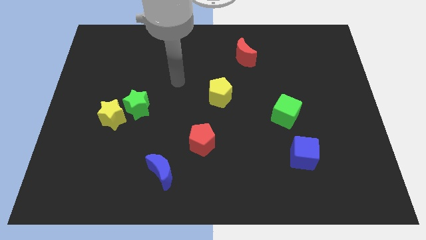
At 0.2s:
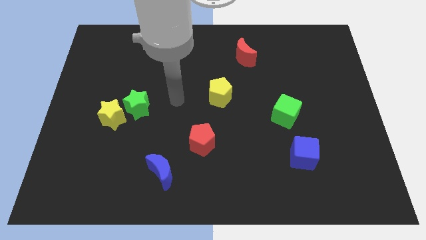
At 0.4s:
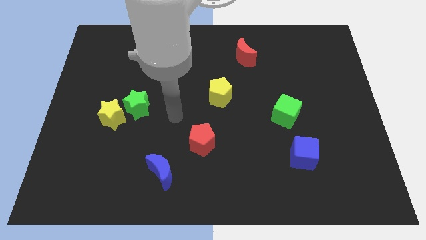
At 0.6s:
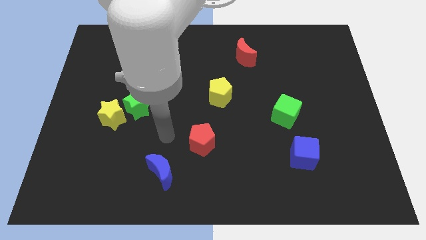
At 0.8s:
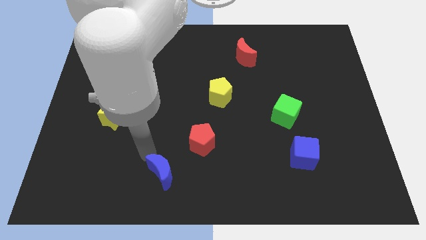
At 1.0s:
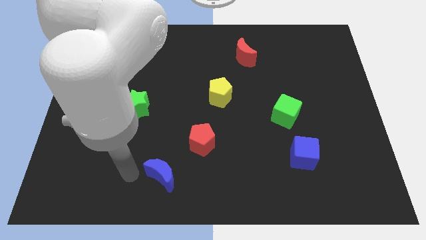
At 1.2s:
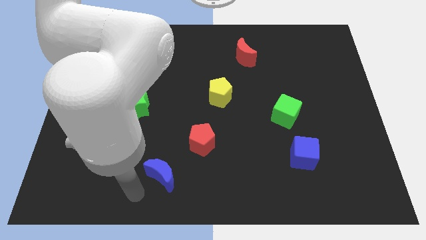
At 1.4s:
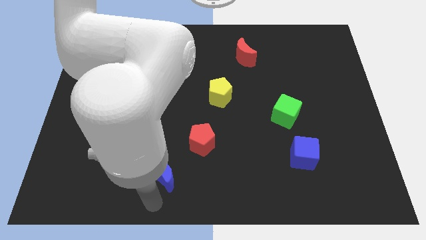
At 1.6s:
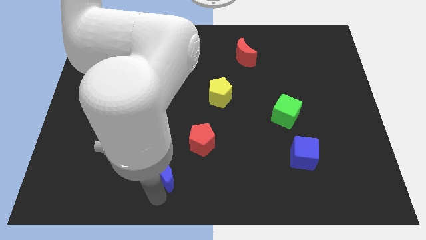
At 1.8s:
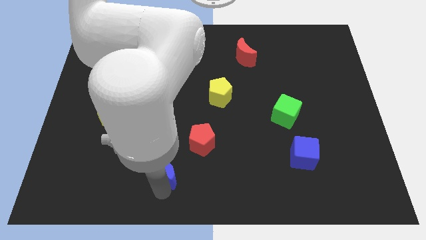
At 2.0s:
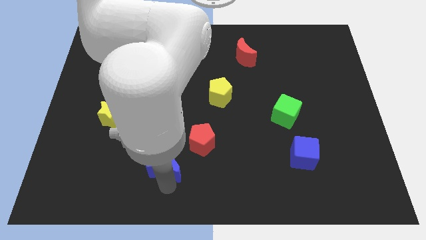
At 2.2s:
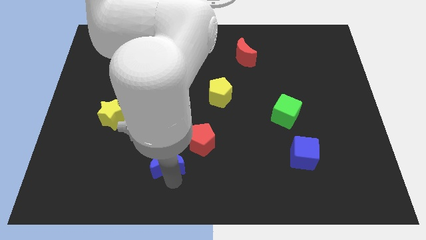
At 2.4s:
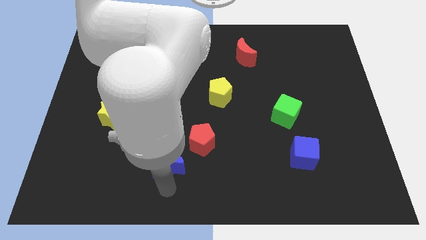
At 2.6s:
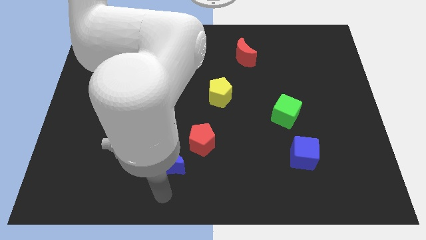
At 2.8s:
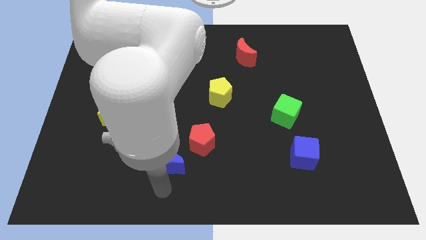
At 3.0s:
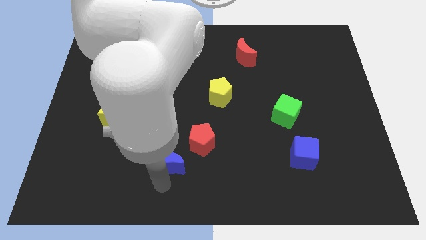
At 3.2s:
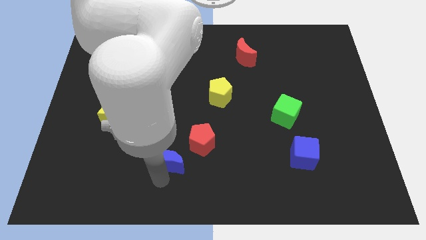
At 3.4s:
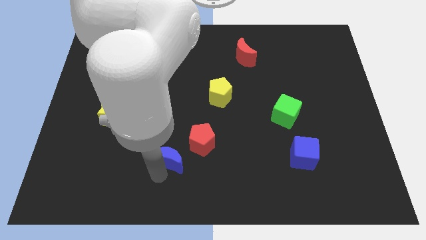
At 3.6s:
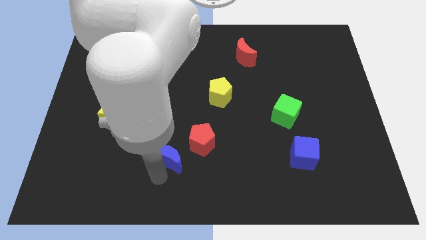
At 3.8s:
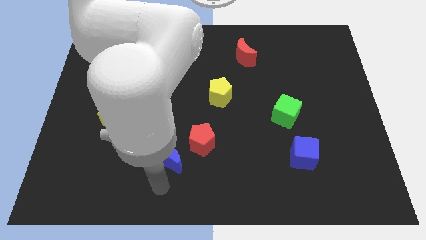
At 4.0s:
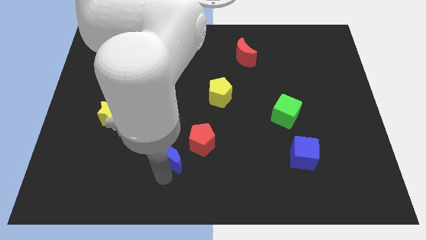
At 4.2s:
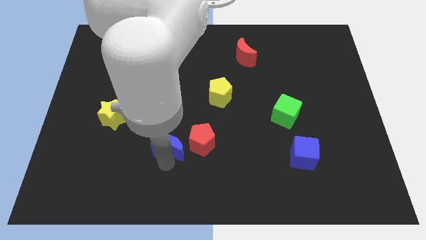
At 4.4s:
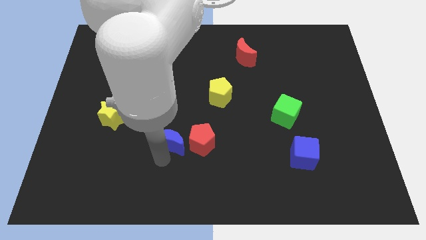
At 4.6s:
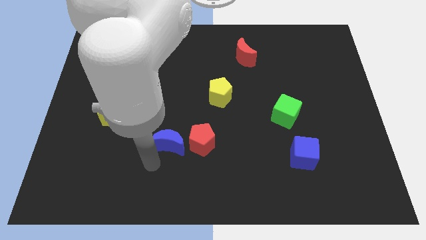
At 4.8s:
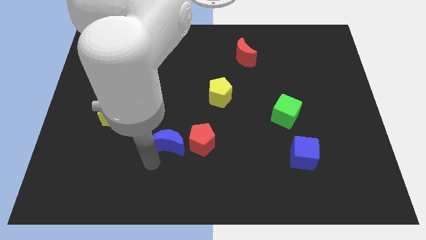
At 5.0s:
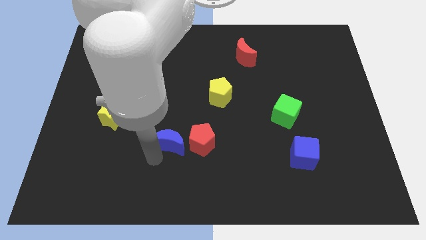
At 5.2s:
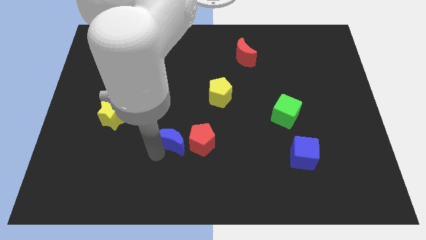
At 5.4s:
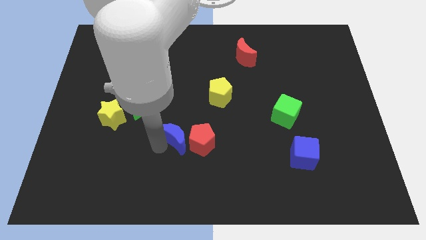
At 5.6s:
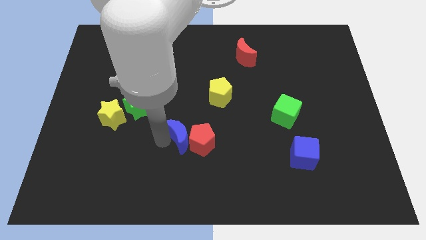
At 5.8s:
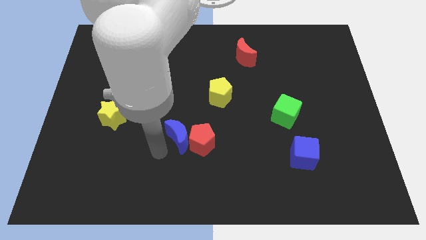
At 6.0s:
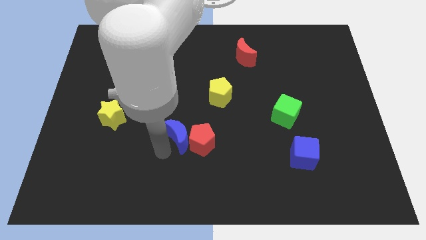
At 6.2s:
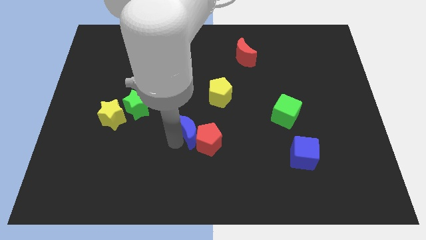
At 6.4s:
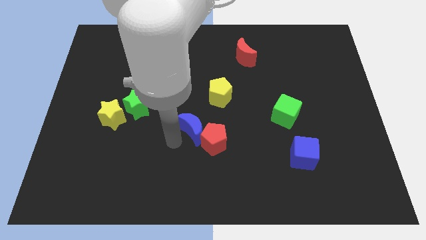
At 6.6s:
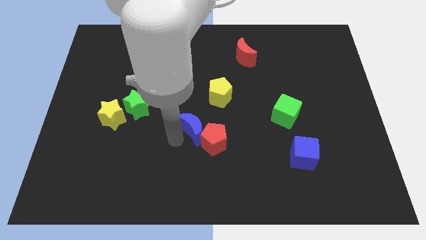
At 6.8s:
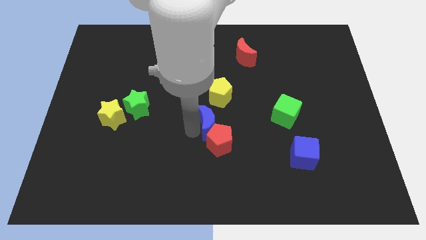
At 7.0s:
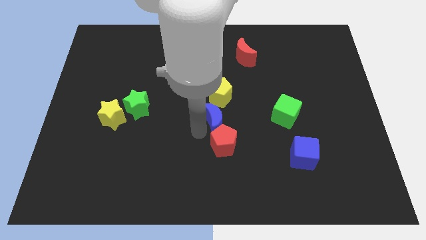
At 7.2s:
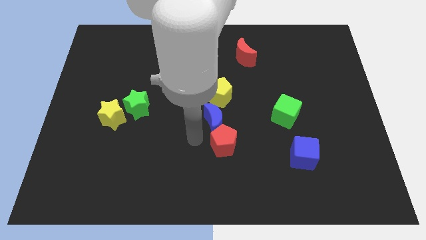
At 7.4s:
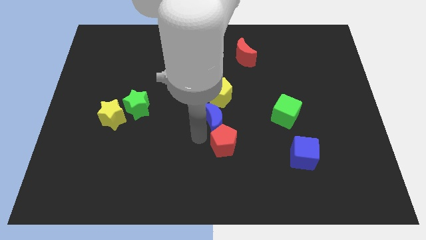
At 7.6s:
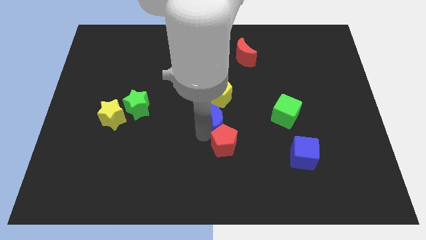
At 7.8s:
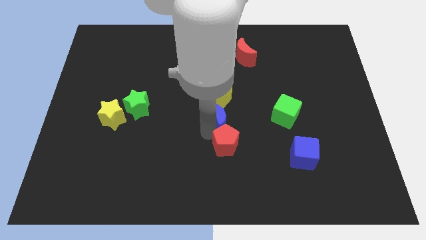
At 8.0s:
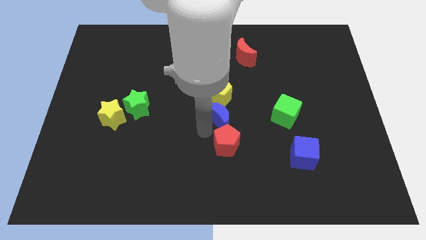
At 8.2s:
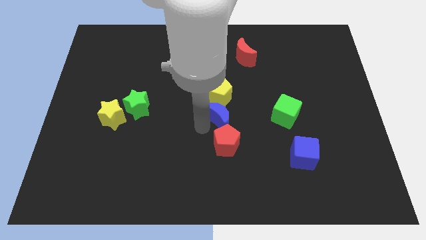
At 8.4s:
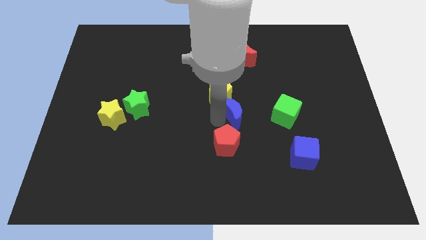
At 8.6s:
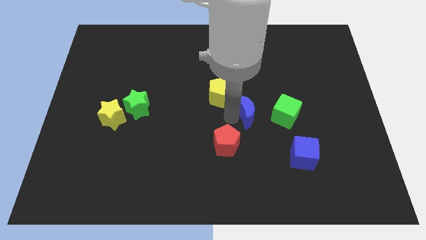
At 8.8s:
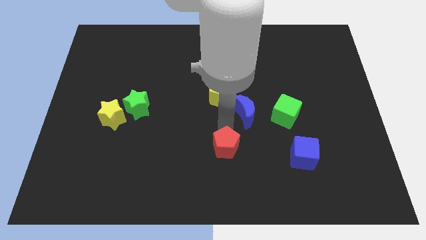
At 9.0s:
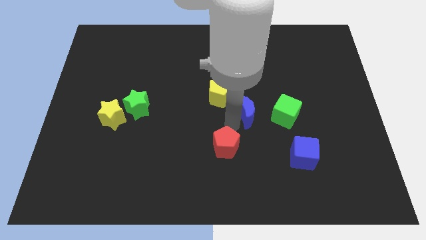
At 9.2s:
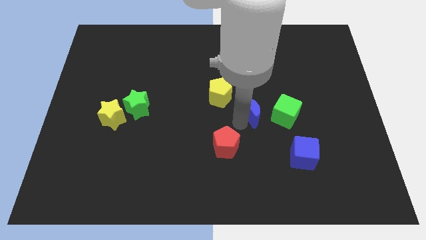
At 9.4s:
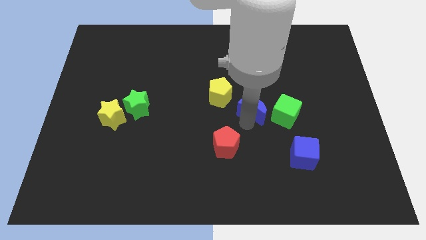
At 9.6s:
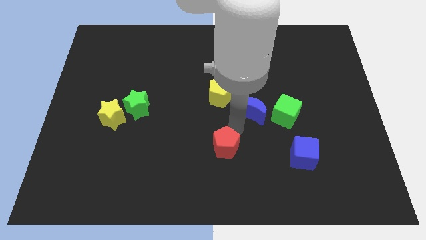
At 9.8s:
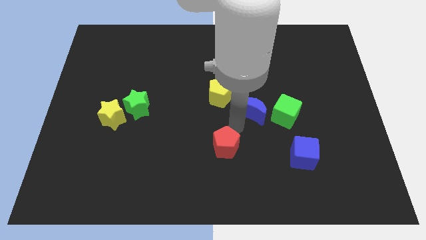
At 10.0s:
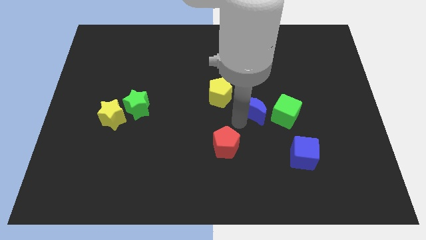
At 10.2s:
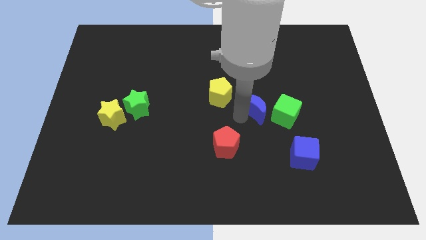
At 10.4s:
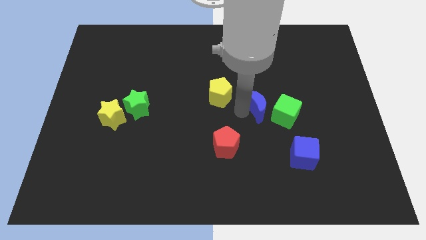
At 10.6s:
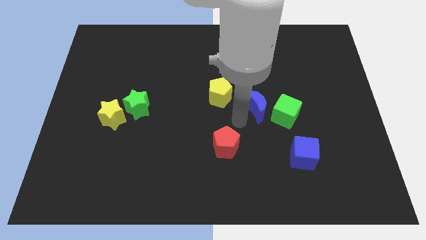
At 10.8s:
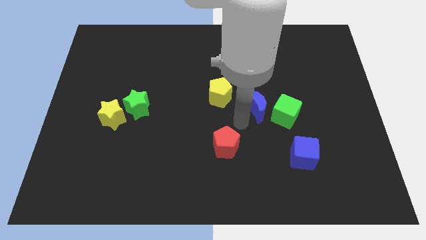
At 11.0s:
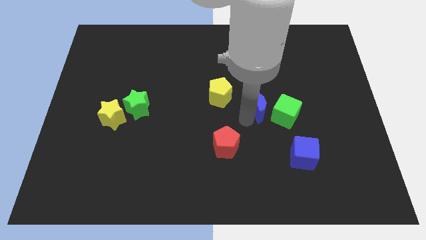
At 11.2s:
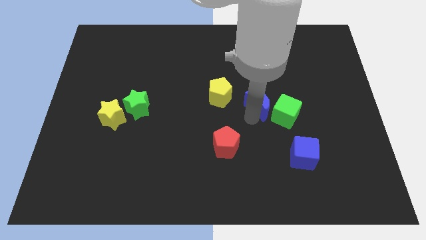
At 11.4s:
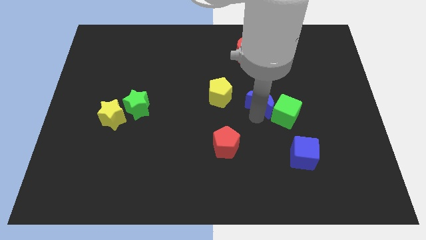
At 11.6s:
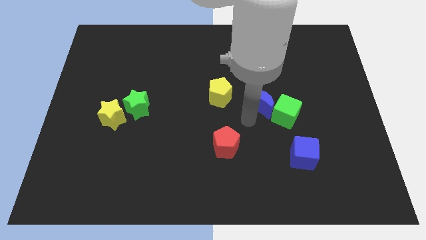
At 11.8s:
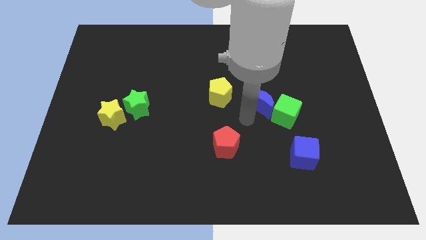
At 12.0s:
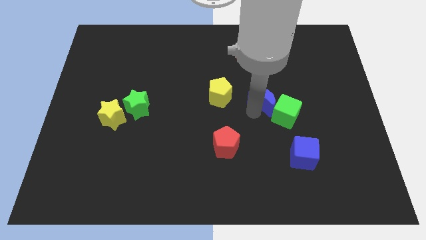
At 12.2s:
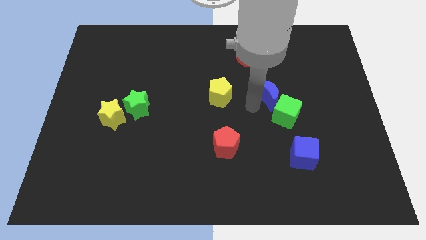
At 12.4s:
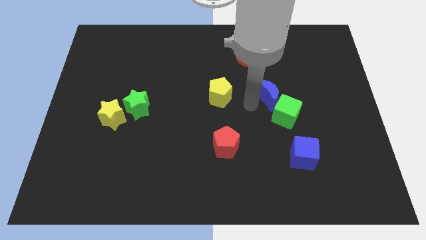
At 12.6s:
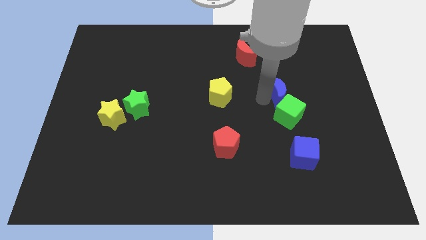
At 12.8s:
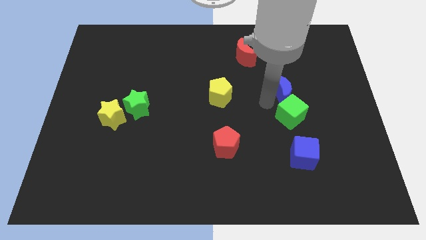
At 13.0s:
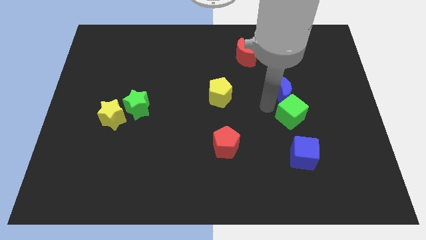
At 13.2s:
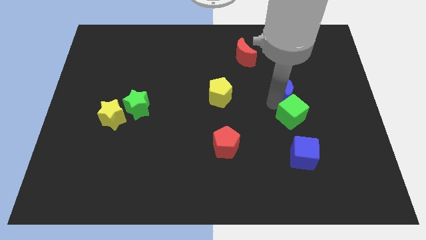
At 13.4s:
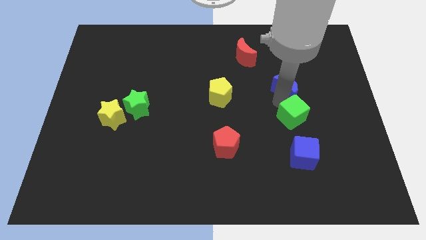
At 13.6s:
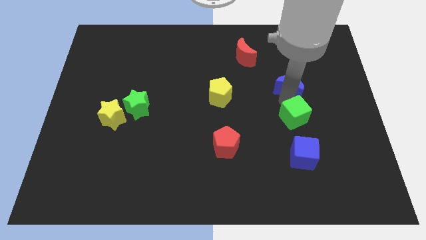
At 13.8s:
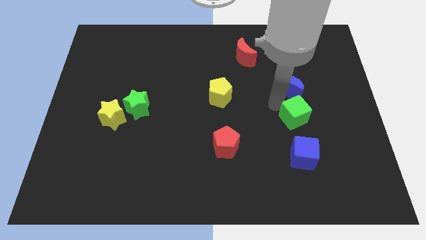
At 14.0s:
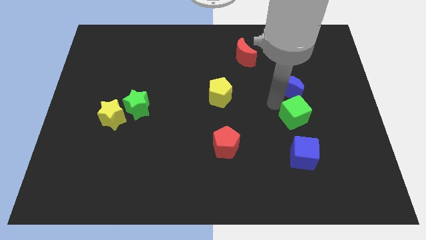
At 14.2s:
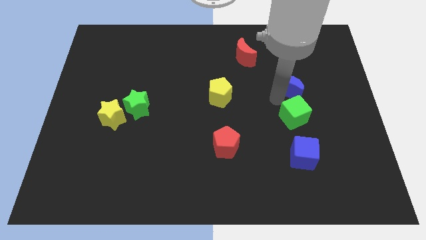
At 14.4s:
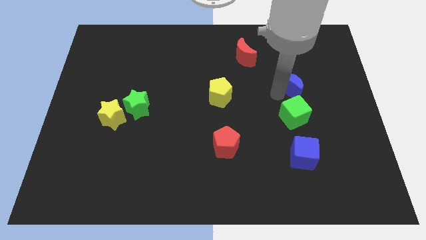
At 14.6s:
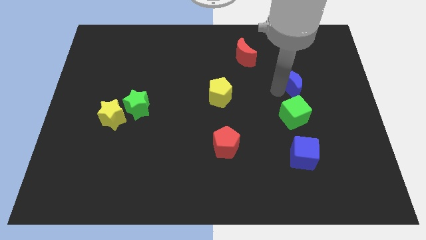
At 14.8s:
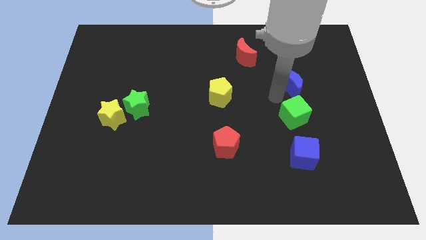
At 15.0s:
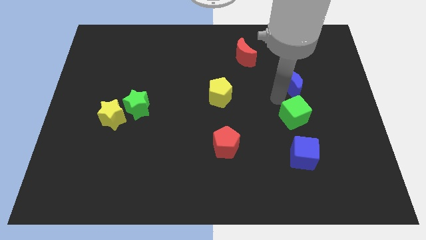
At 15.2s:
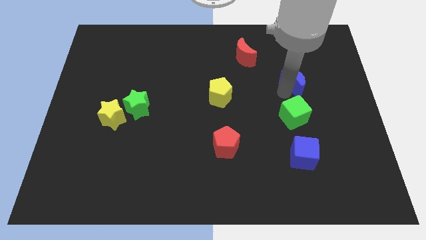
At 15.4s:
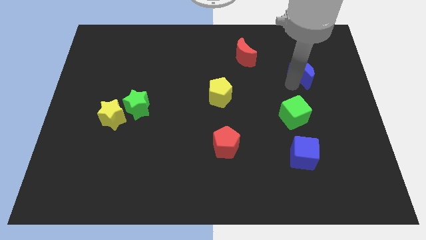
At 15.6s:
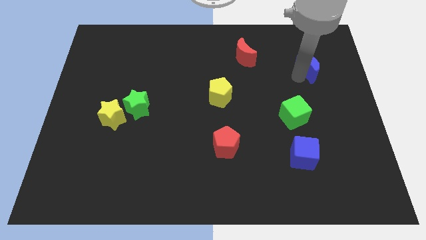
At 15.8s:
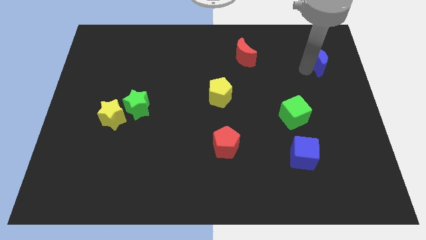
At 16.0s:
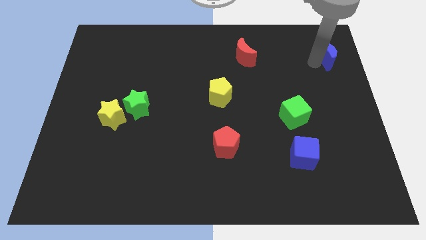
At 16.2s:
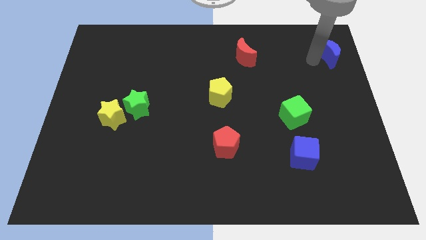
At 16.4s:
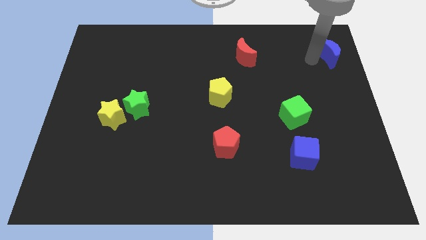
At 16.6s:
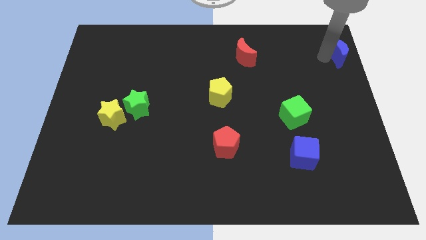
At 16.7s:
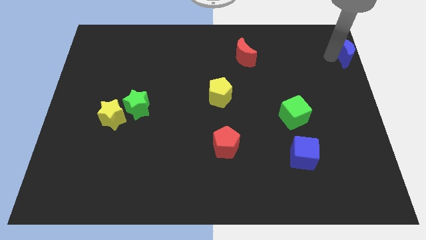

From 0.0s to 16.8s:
put the blue moon to the top right of the board
